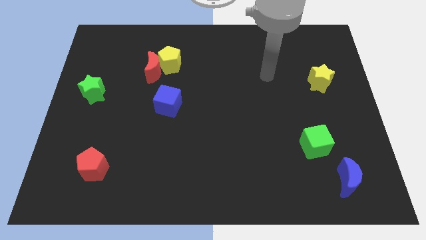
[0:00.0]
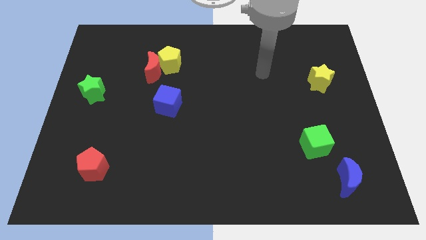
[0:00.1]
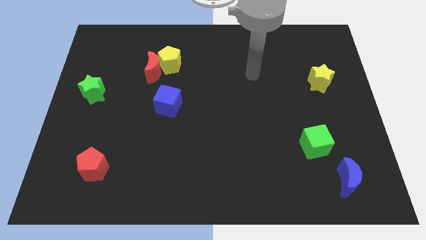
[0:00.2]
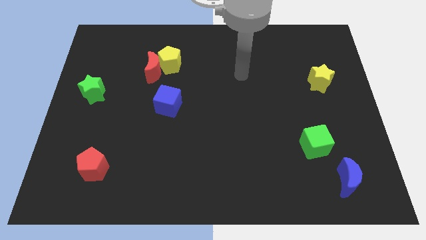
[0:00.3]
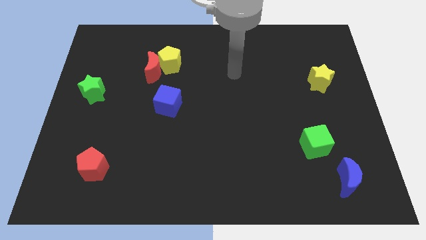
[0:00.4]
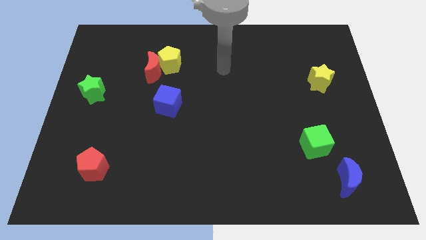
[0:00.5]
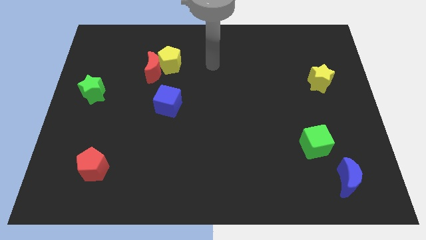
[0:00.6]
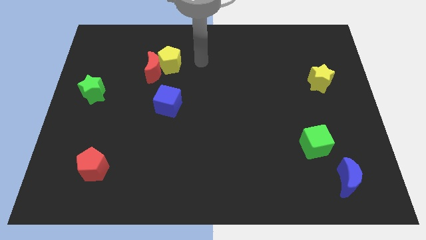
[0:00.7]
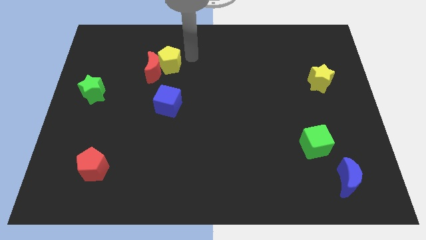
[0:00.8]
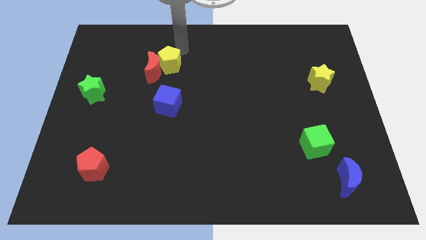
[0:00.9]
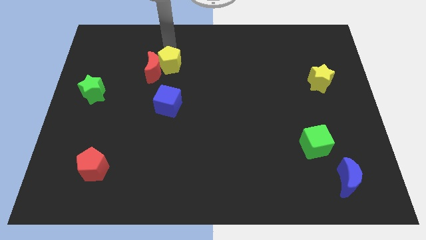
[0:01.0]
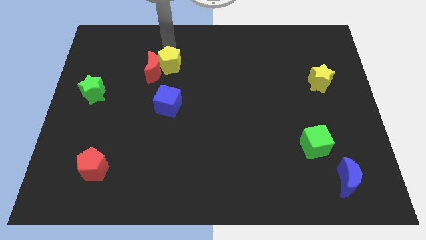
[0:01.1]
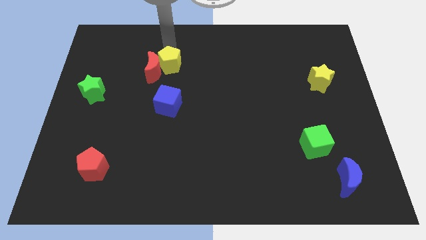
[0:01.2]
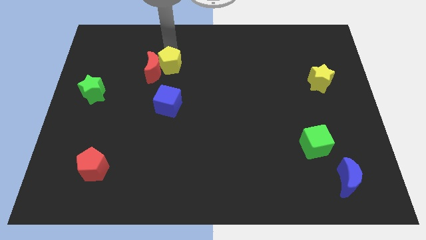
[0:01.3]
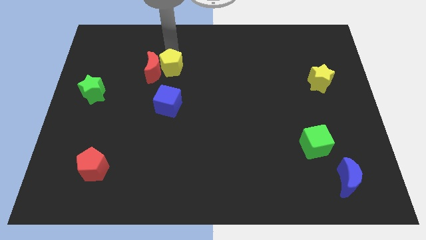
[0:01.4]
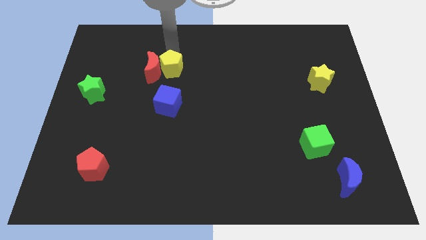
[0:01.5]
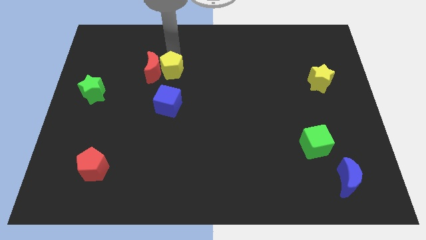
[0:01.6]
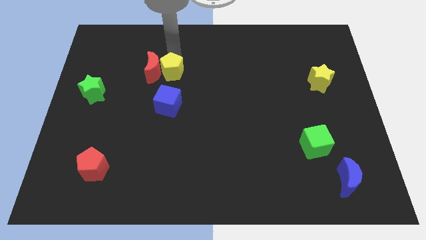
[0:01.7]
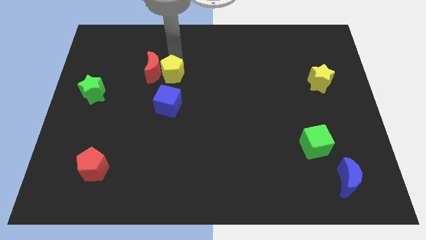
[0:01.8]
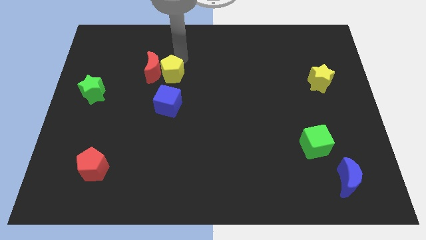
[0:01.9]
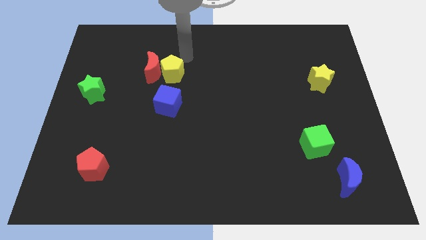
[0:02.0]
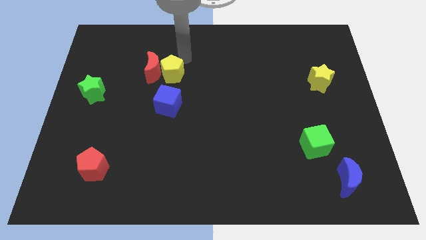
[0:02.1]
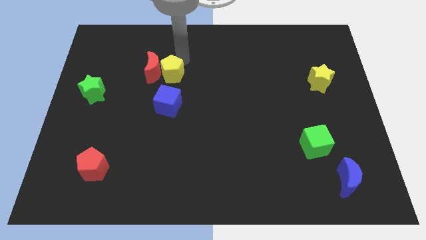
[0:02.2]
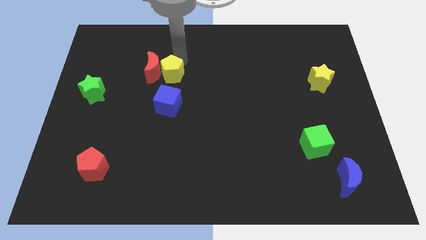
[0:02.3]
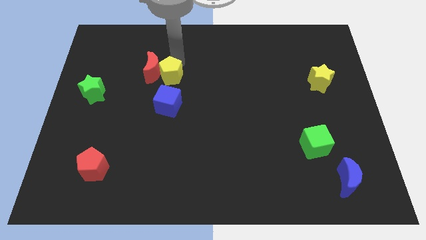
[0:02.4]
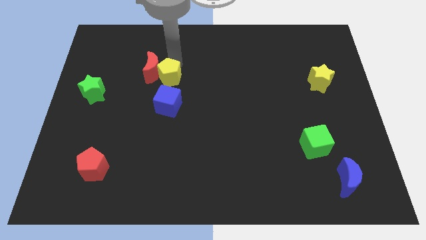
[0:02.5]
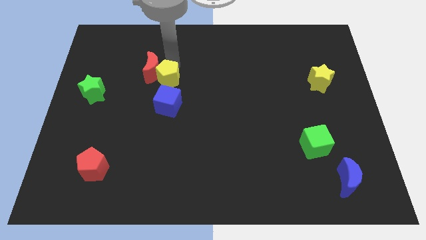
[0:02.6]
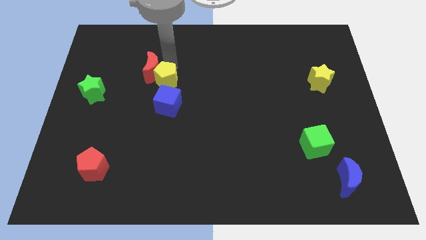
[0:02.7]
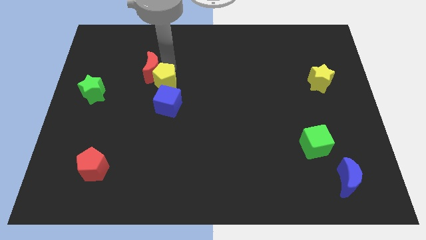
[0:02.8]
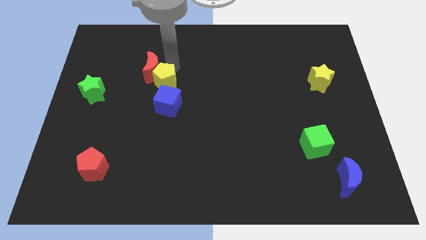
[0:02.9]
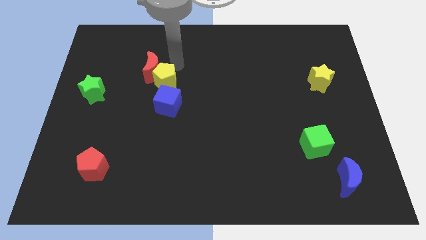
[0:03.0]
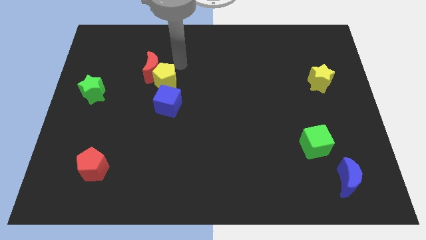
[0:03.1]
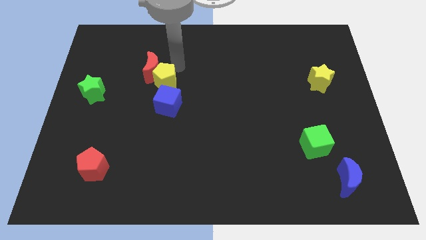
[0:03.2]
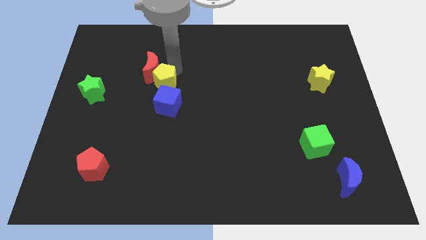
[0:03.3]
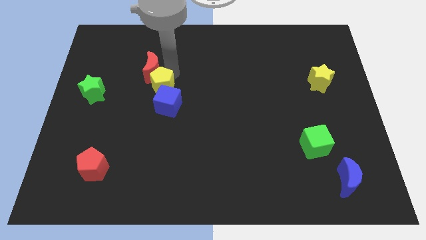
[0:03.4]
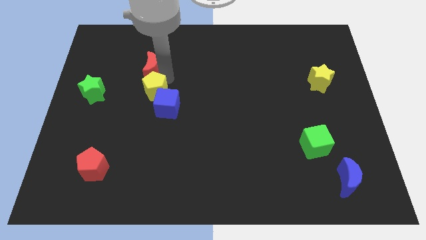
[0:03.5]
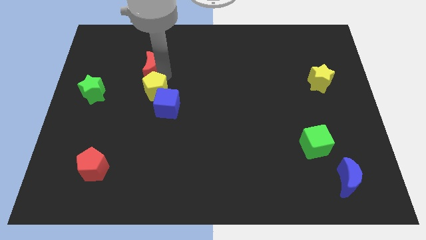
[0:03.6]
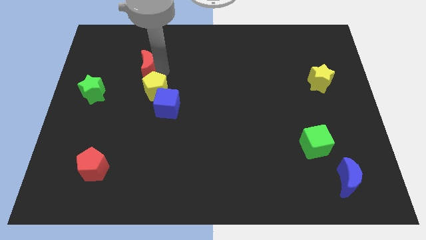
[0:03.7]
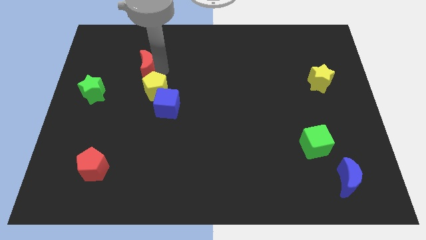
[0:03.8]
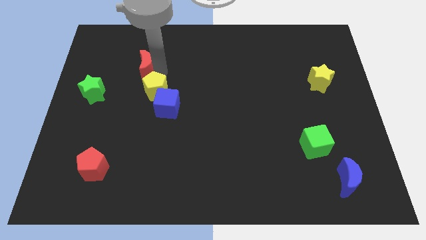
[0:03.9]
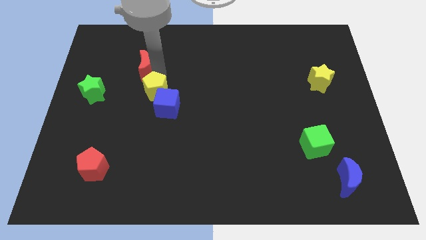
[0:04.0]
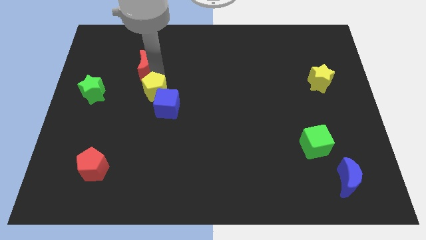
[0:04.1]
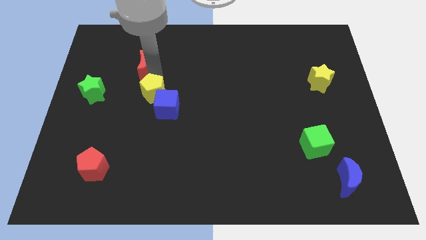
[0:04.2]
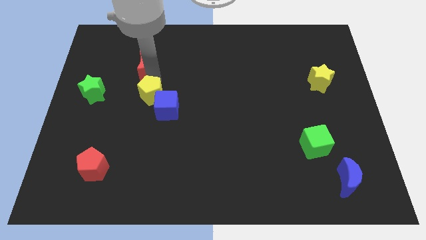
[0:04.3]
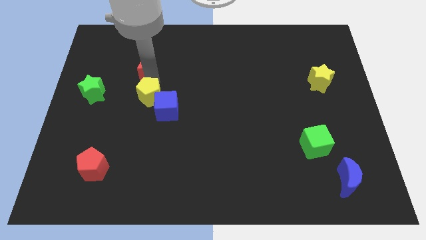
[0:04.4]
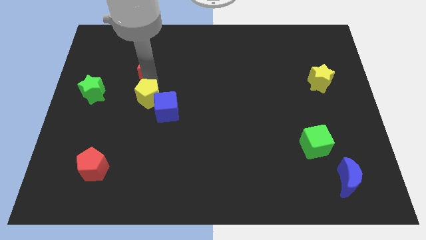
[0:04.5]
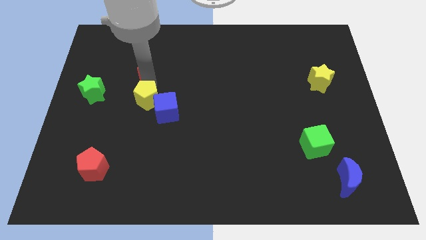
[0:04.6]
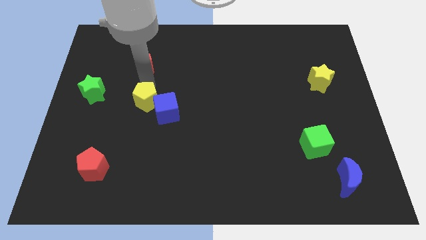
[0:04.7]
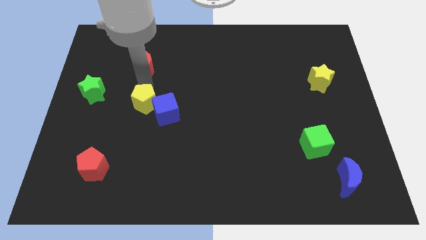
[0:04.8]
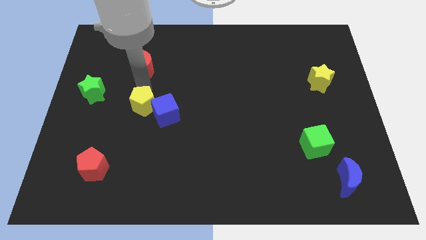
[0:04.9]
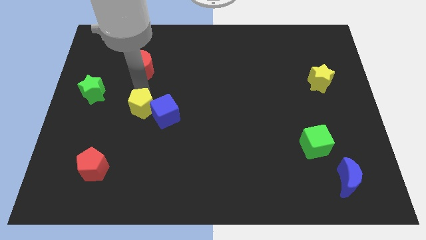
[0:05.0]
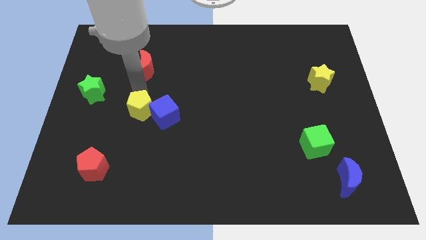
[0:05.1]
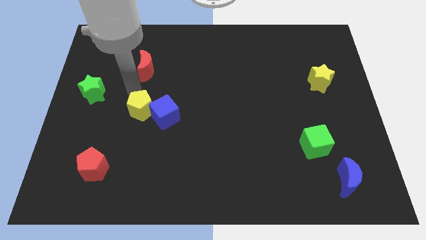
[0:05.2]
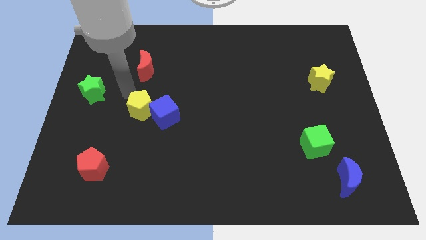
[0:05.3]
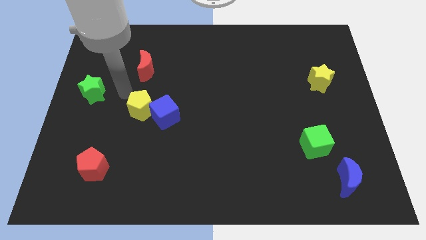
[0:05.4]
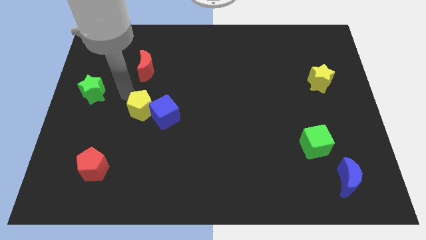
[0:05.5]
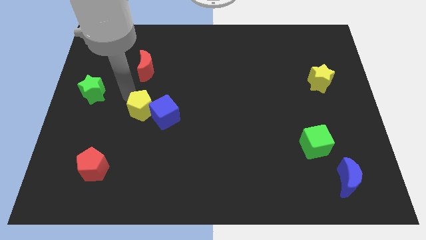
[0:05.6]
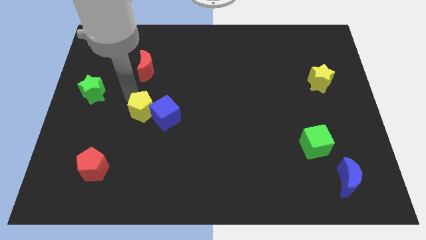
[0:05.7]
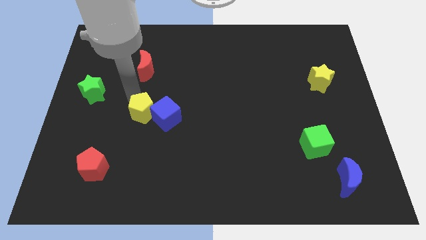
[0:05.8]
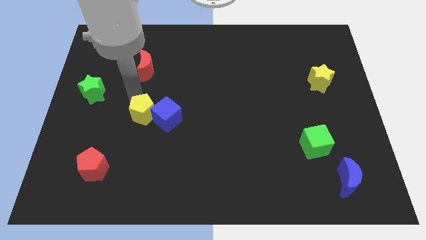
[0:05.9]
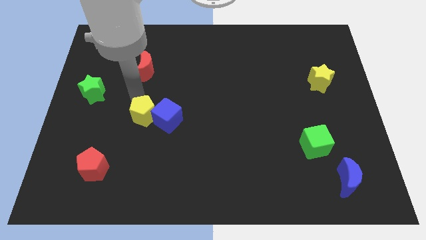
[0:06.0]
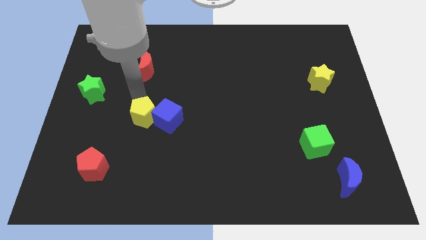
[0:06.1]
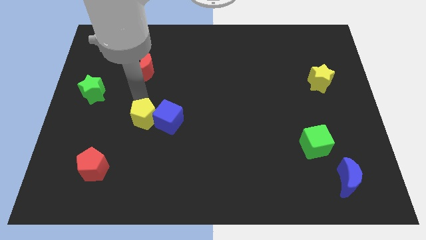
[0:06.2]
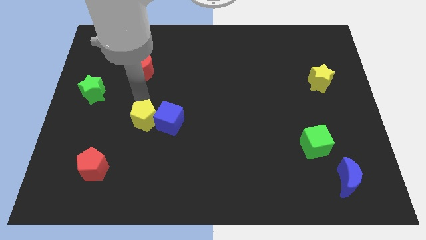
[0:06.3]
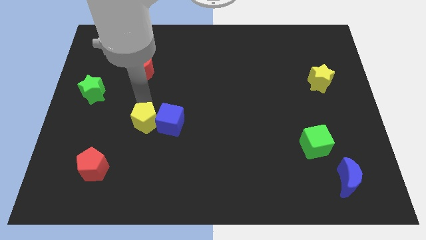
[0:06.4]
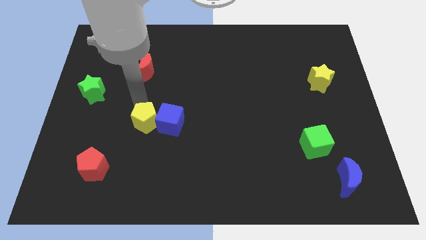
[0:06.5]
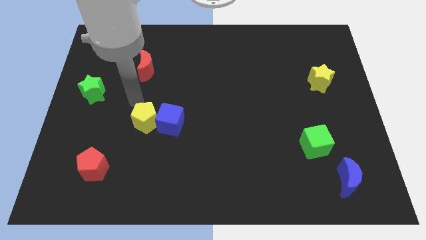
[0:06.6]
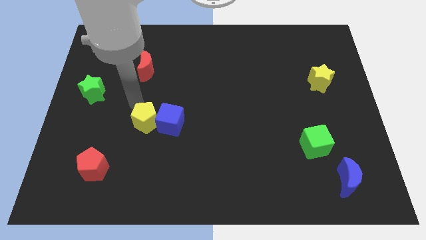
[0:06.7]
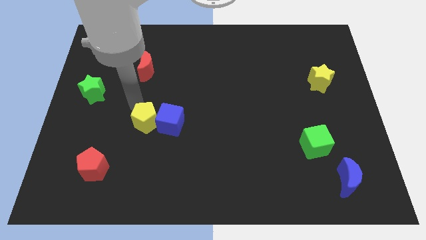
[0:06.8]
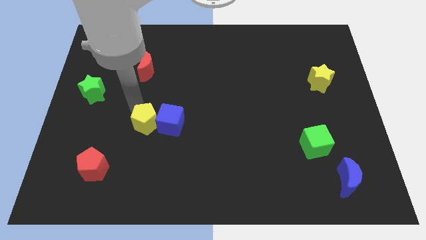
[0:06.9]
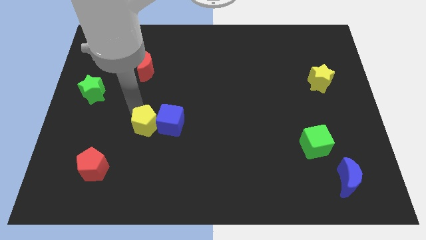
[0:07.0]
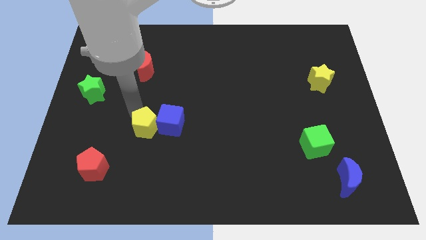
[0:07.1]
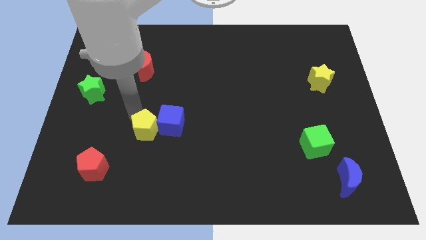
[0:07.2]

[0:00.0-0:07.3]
slide the yellow pentagon down

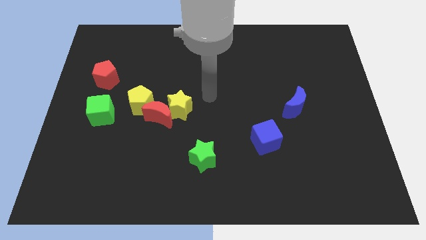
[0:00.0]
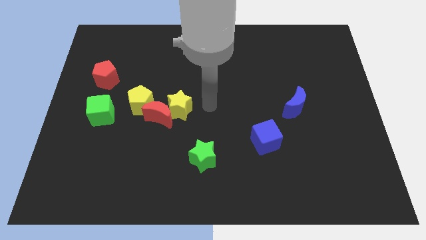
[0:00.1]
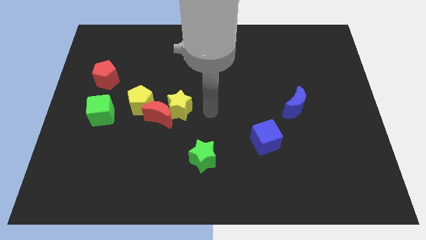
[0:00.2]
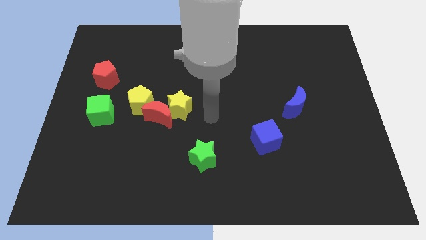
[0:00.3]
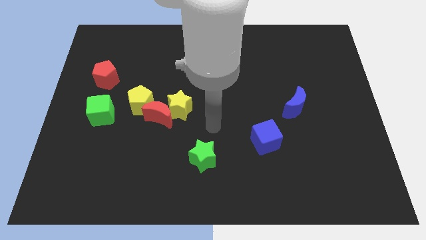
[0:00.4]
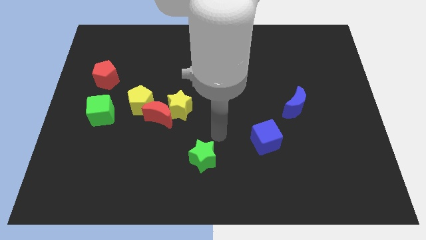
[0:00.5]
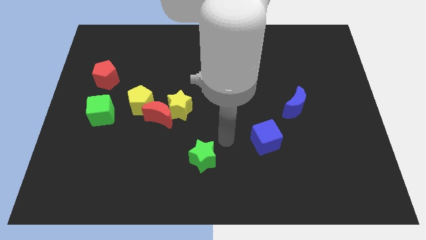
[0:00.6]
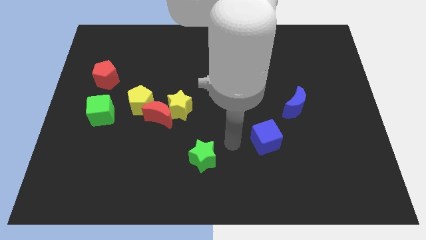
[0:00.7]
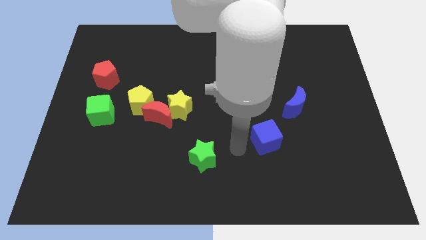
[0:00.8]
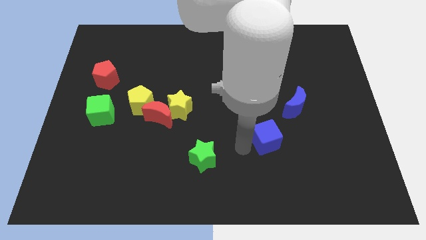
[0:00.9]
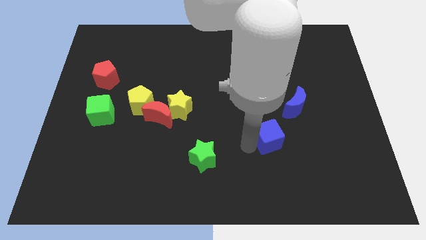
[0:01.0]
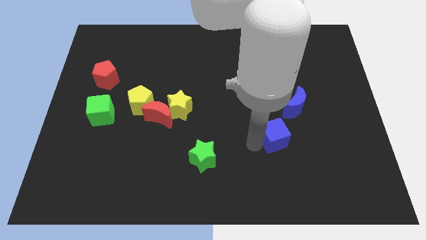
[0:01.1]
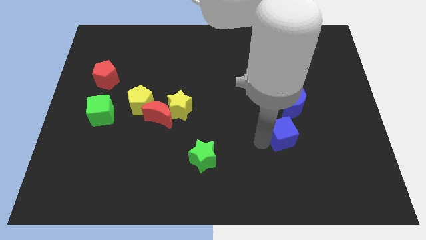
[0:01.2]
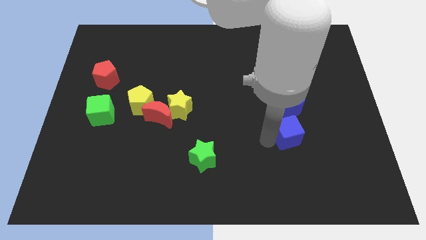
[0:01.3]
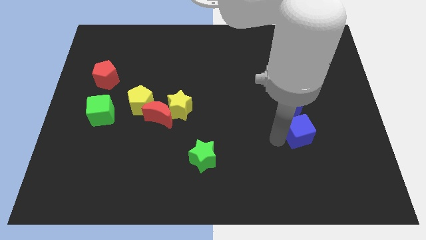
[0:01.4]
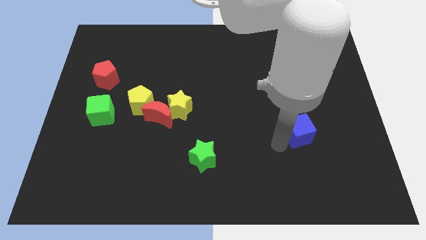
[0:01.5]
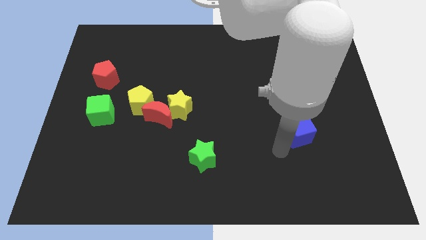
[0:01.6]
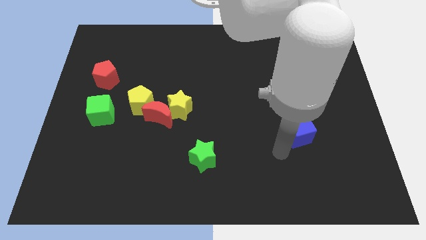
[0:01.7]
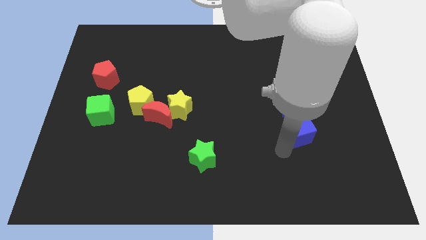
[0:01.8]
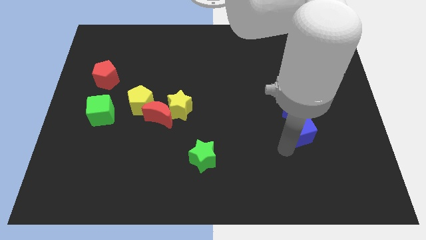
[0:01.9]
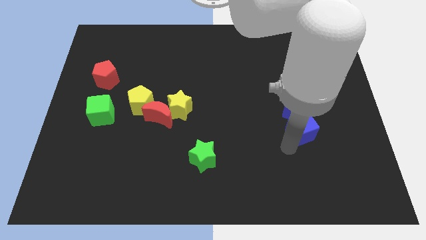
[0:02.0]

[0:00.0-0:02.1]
slightly slide the blue cube up and then to the right
